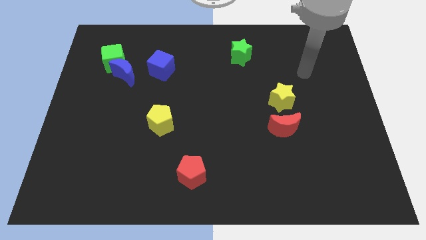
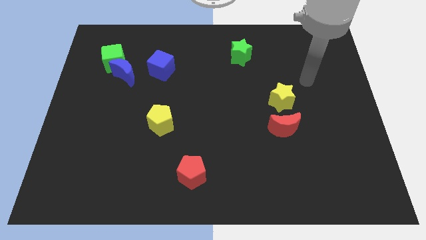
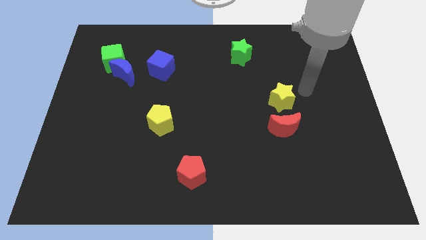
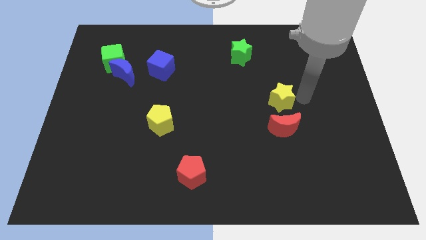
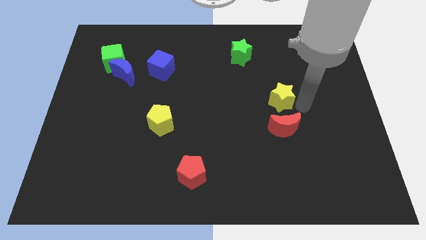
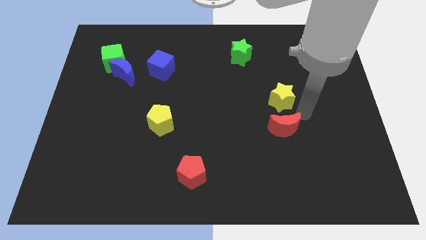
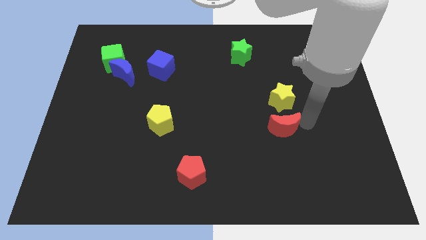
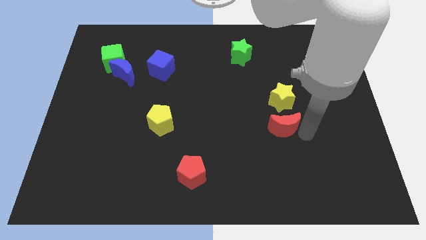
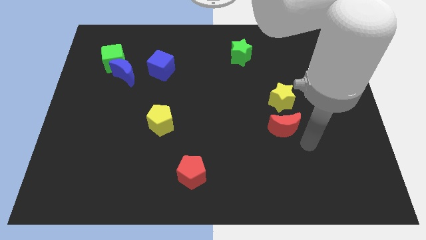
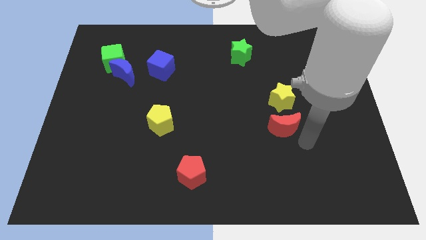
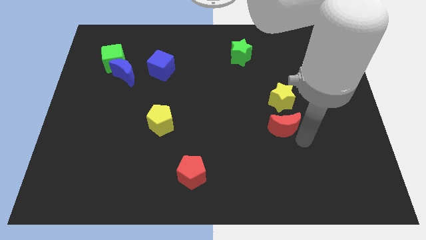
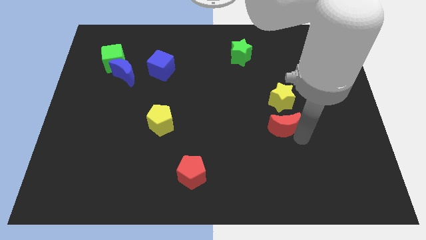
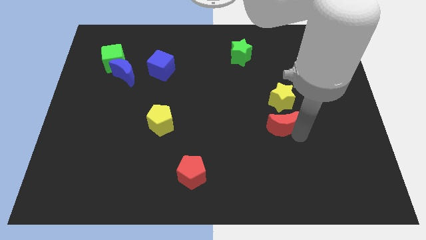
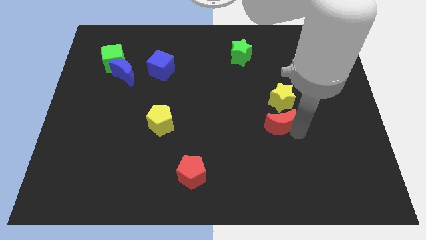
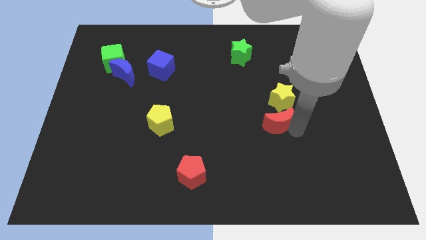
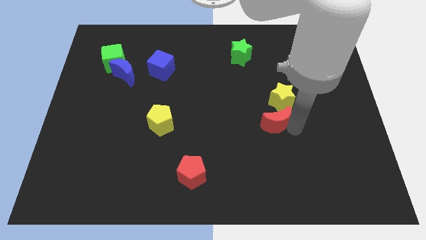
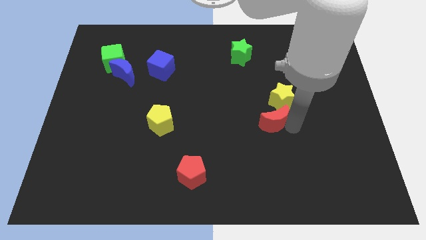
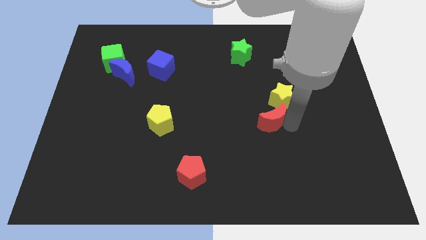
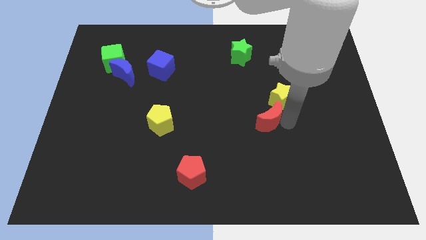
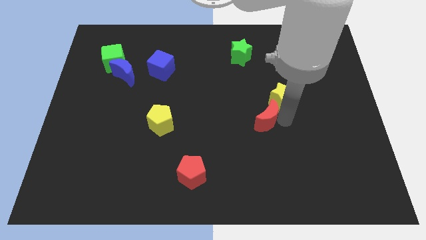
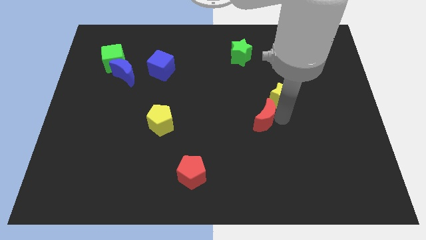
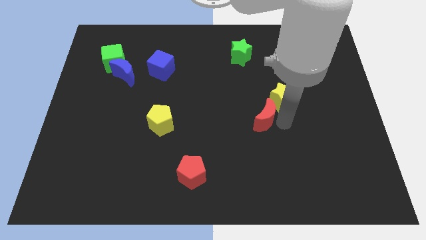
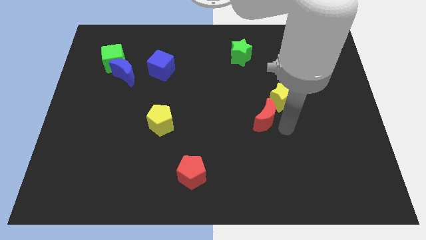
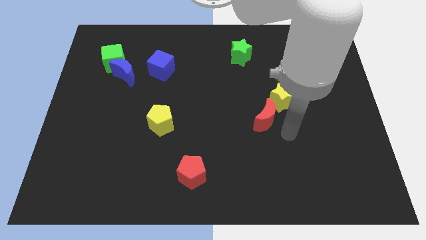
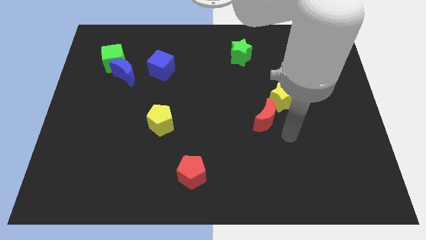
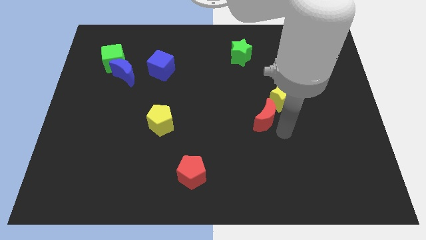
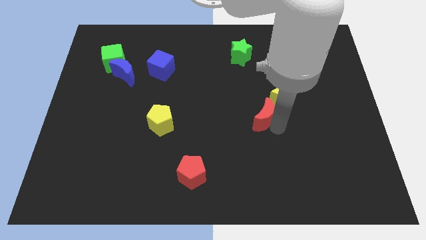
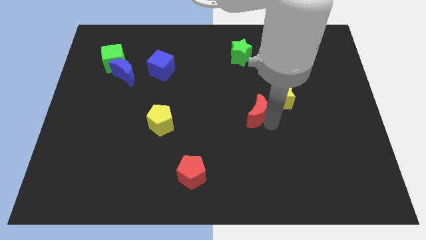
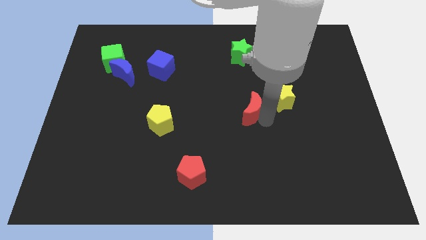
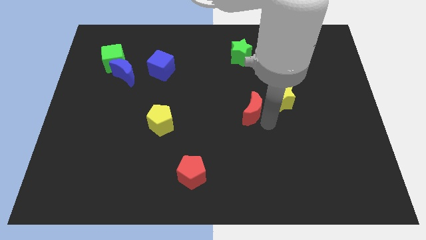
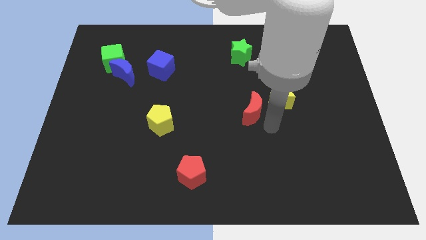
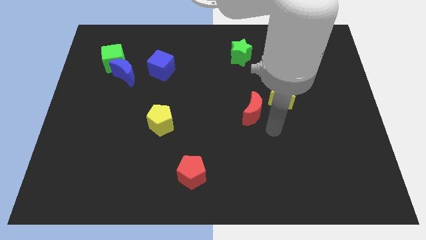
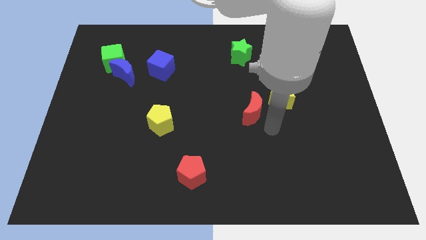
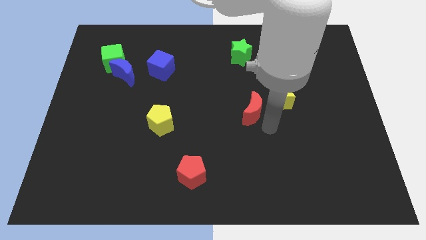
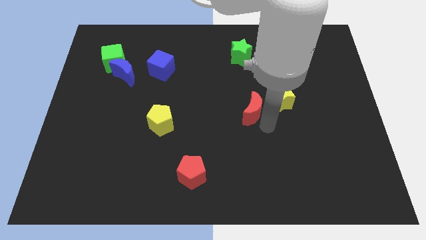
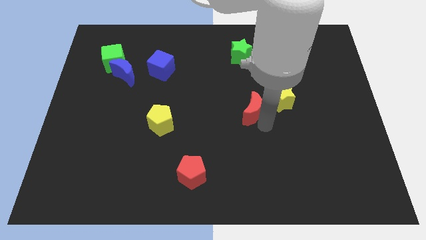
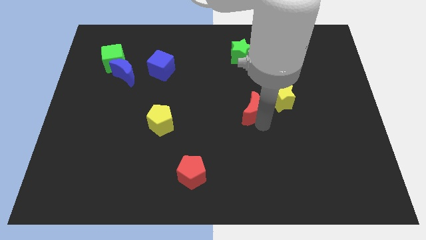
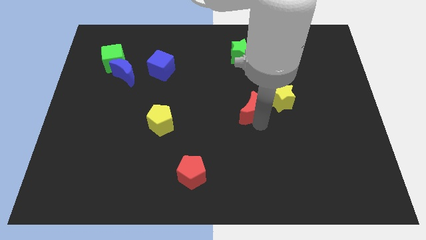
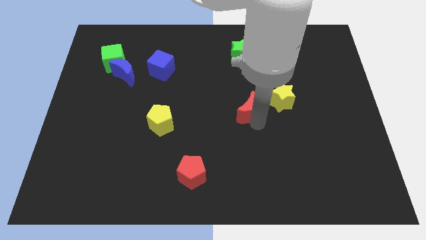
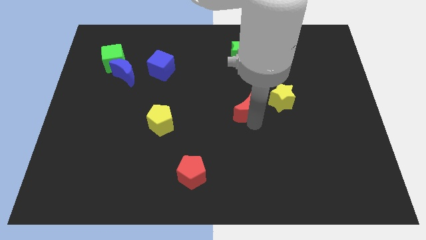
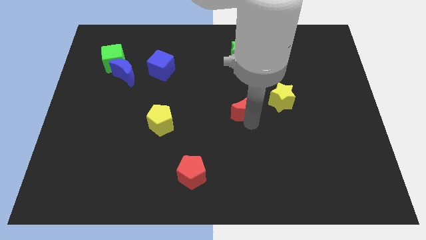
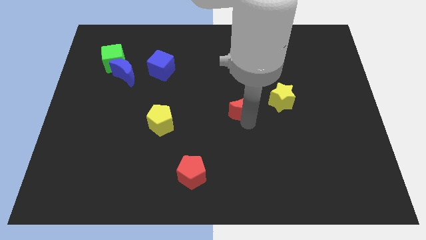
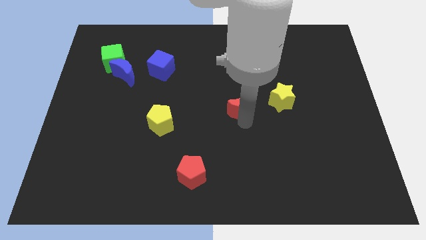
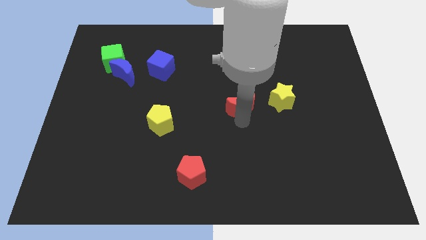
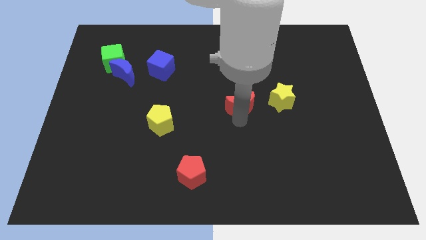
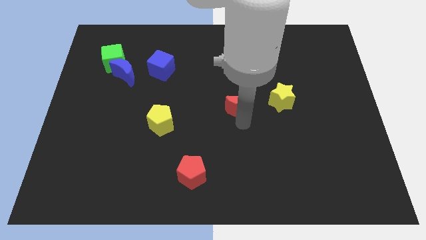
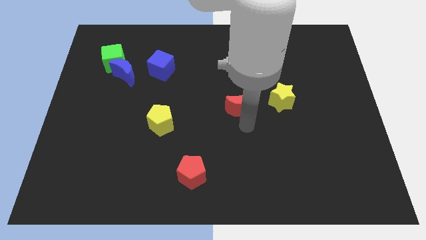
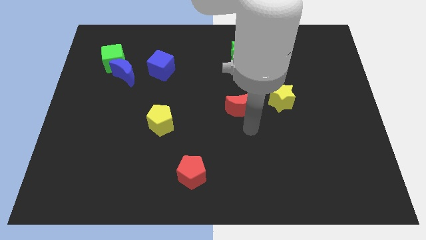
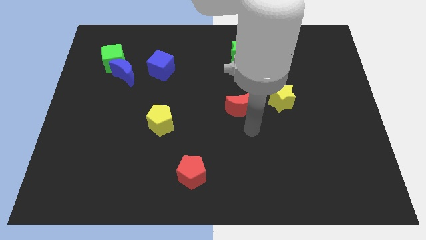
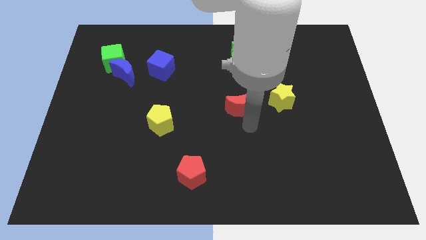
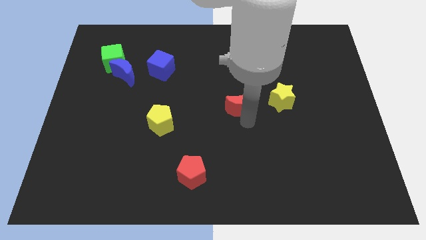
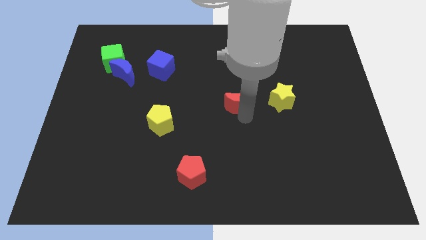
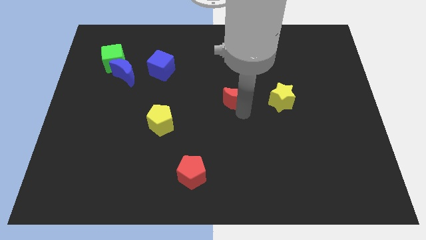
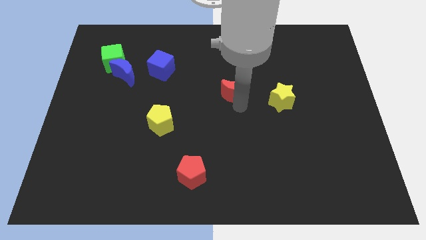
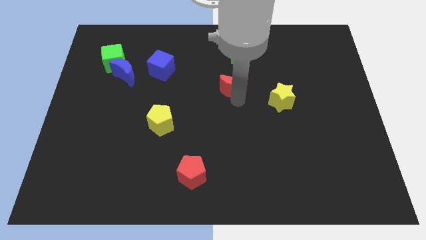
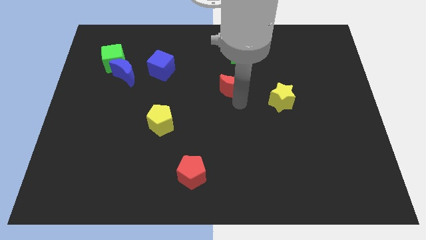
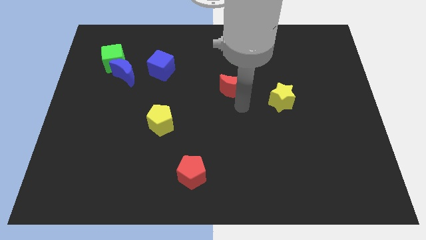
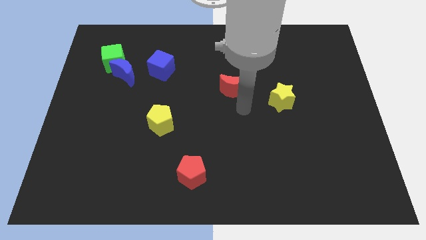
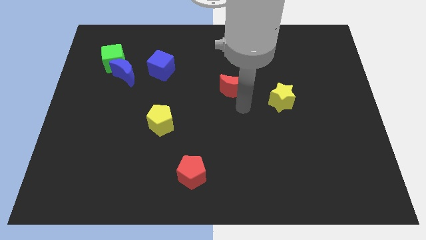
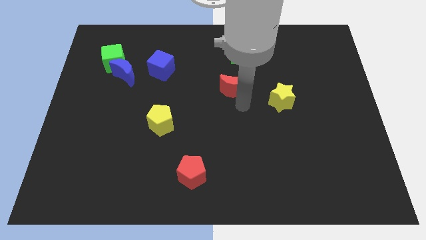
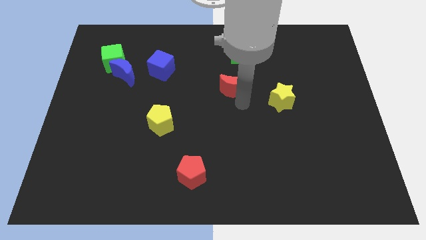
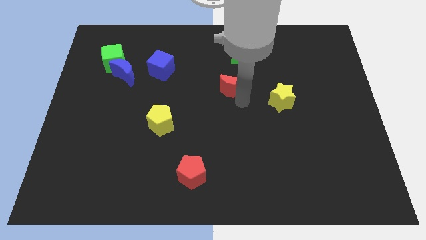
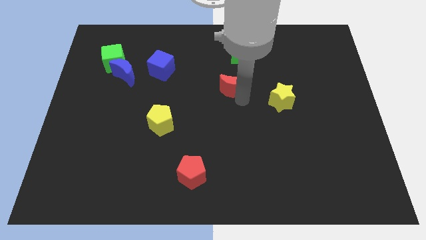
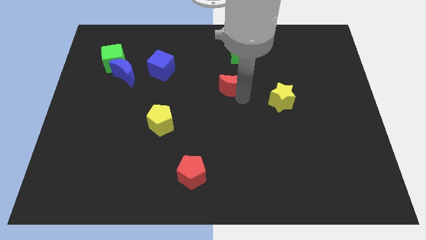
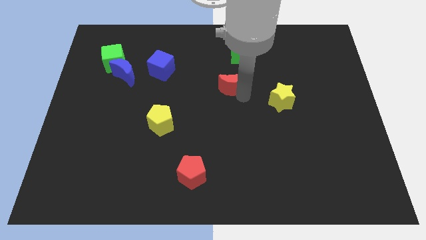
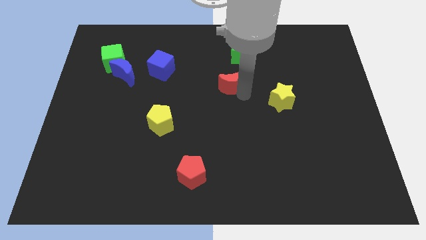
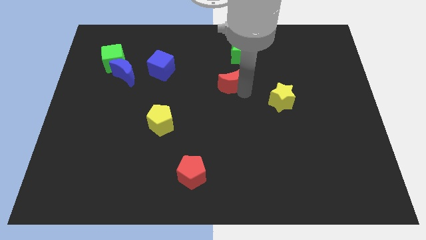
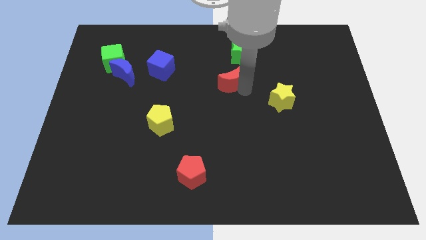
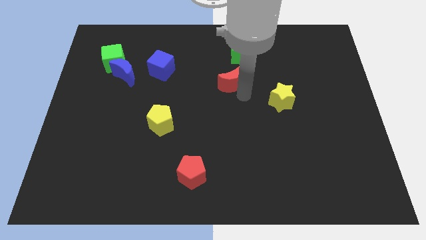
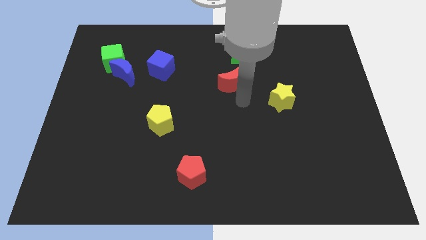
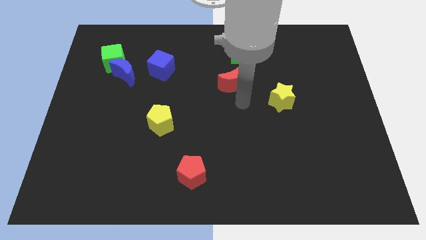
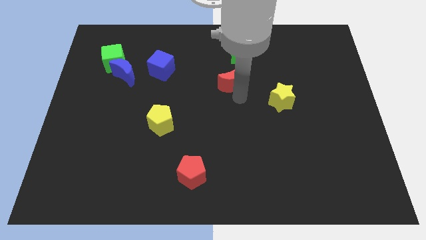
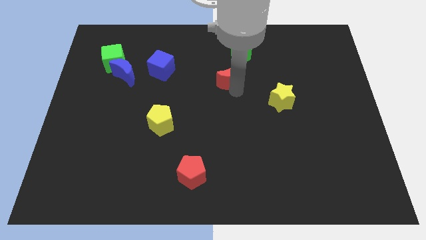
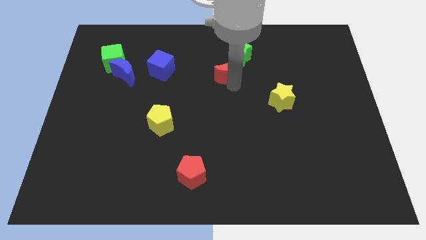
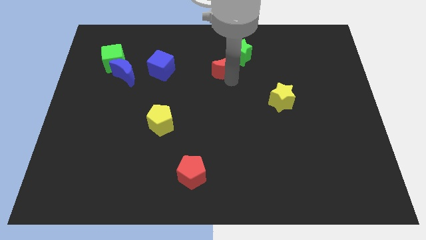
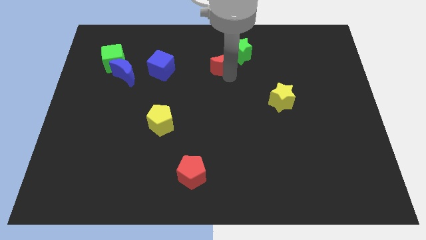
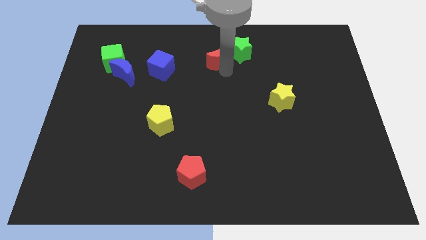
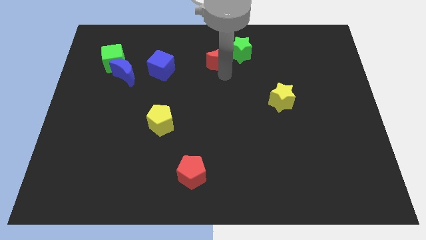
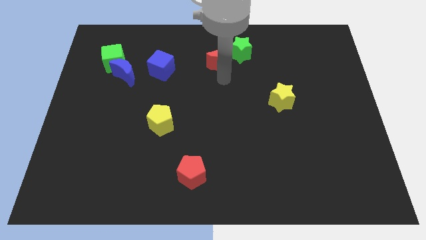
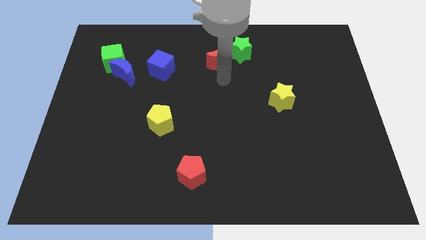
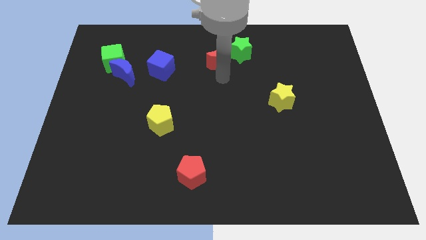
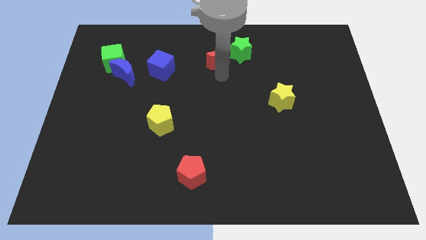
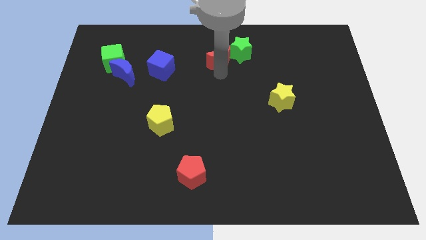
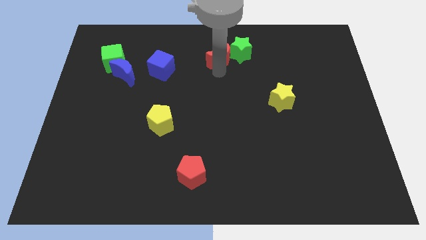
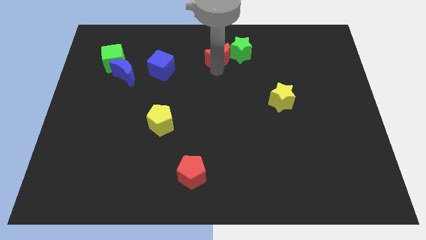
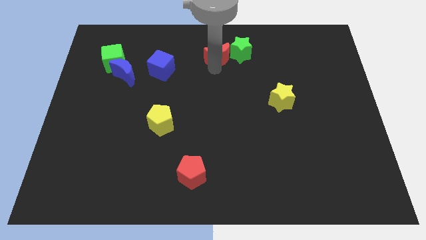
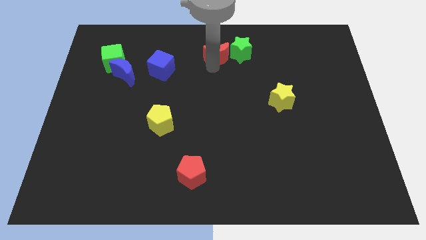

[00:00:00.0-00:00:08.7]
move the red moon to the top side
